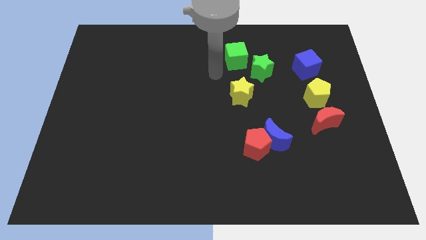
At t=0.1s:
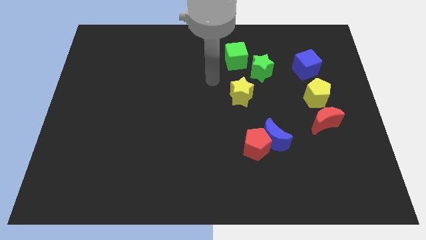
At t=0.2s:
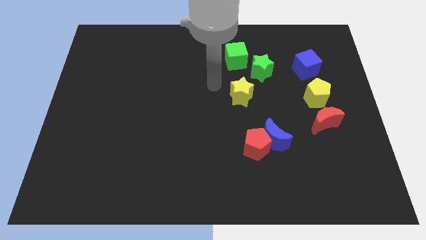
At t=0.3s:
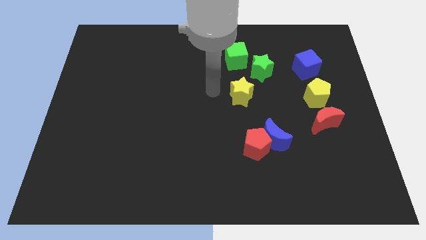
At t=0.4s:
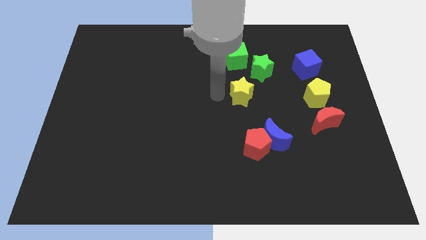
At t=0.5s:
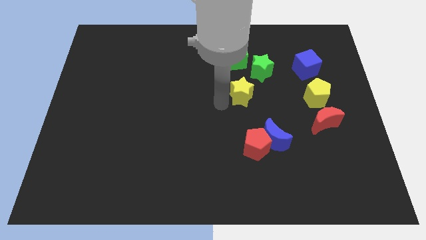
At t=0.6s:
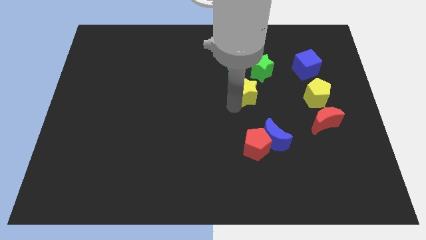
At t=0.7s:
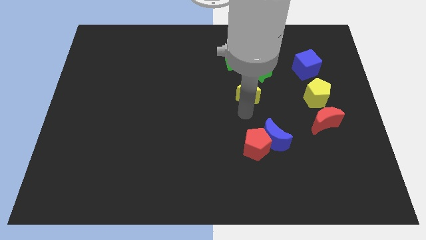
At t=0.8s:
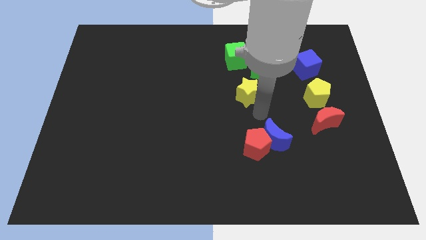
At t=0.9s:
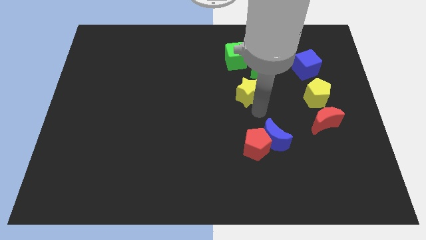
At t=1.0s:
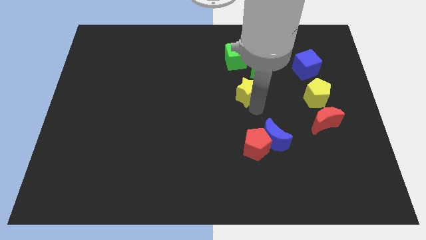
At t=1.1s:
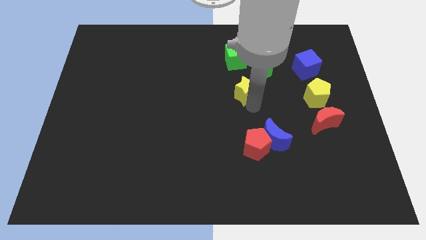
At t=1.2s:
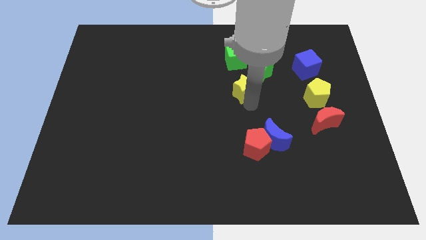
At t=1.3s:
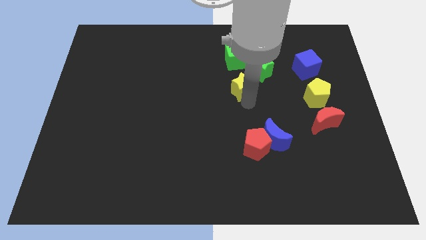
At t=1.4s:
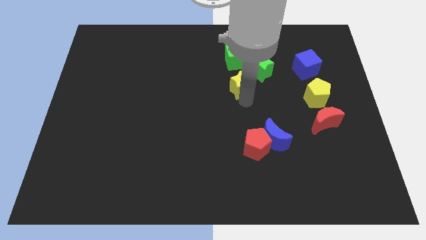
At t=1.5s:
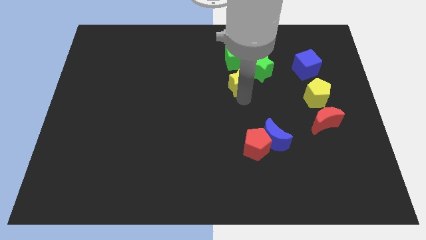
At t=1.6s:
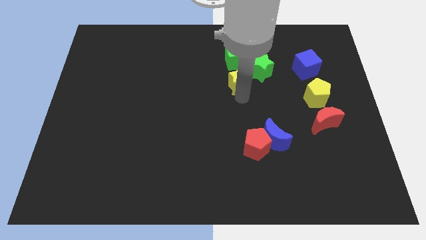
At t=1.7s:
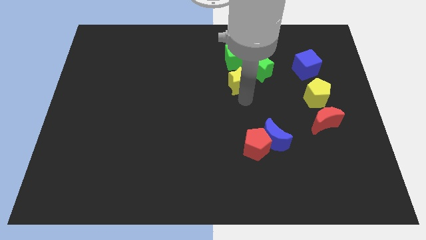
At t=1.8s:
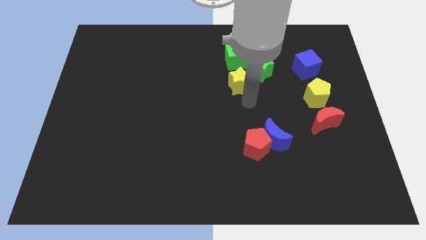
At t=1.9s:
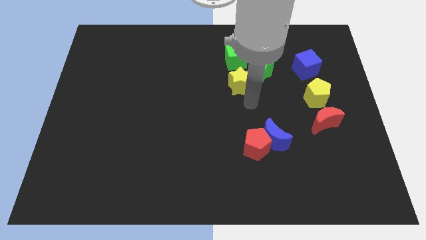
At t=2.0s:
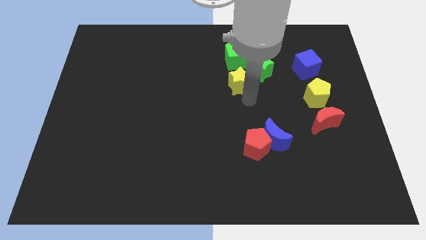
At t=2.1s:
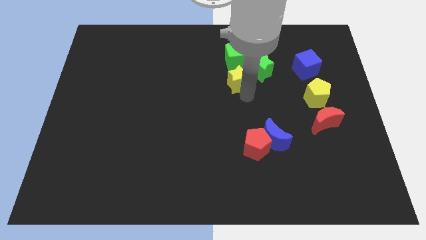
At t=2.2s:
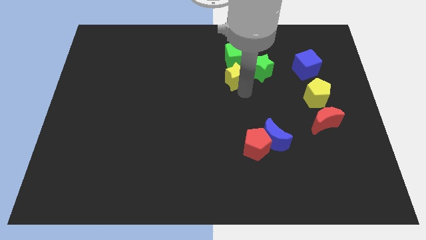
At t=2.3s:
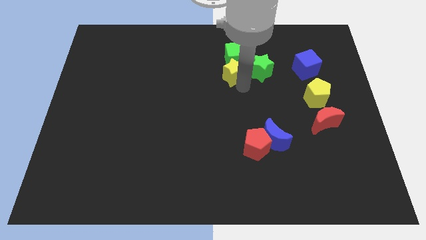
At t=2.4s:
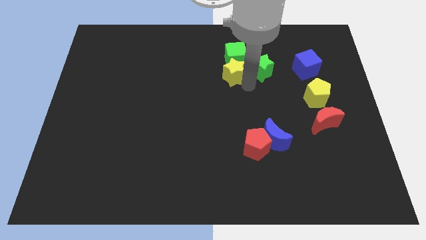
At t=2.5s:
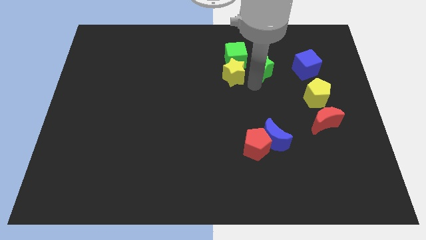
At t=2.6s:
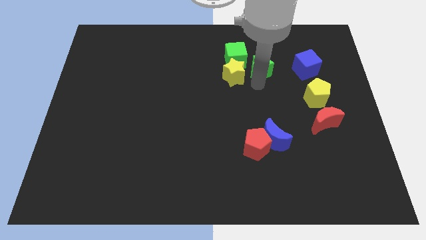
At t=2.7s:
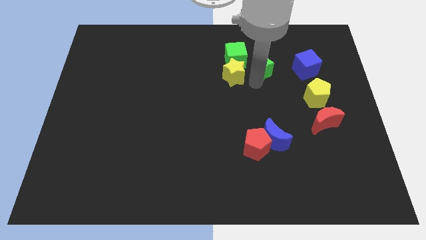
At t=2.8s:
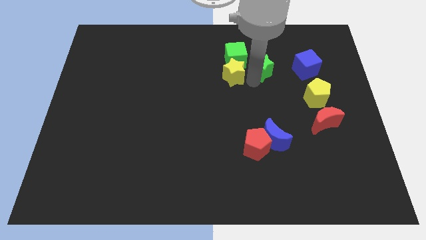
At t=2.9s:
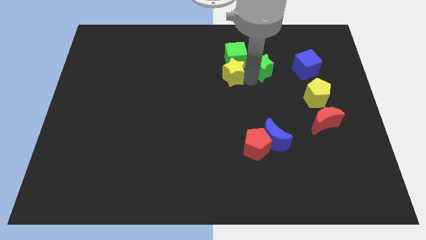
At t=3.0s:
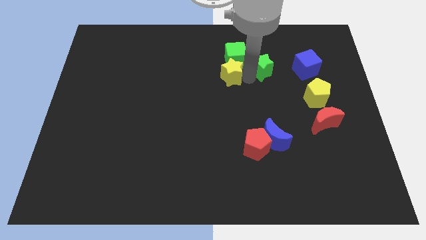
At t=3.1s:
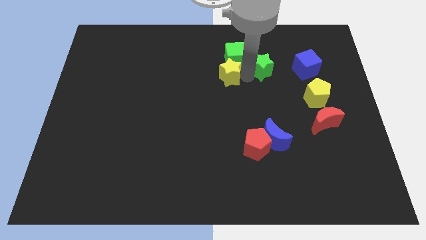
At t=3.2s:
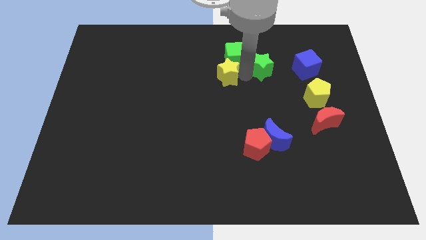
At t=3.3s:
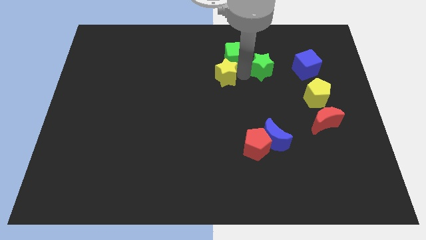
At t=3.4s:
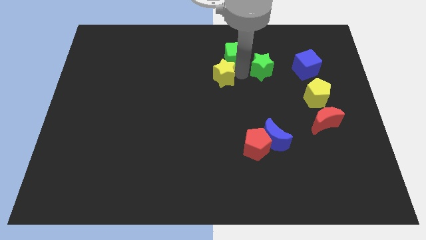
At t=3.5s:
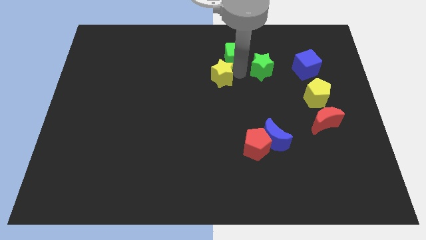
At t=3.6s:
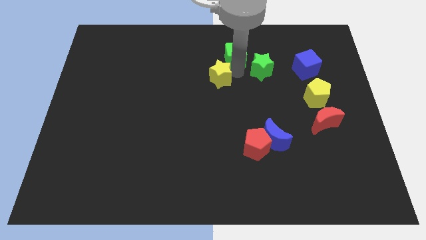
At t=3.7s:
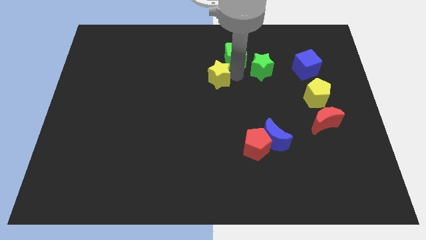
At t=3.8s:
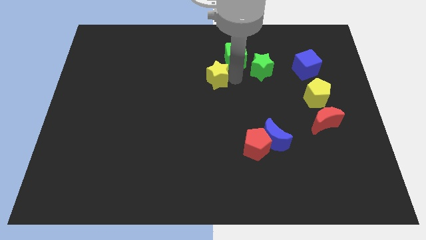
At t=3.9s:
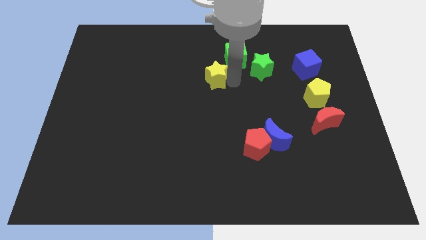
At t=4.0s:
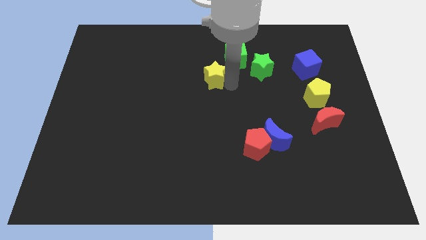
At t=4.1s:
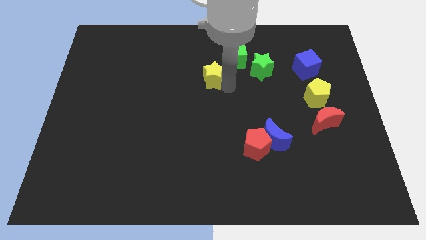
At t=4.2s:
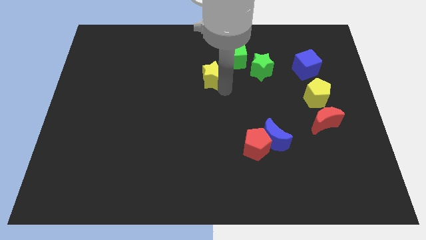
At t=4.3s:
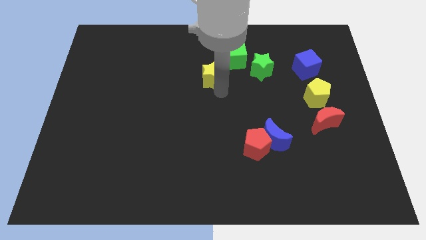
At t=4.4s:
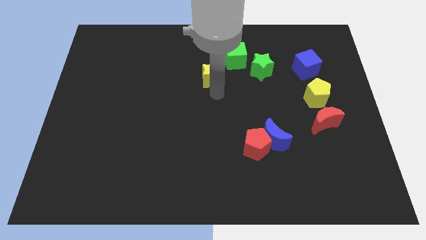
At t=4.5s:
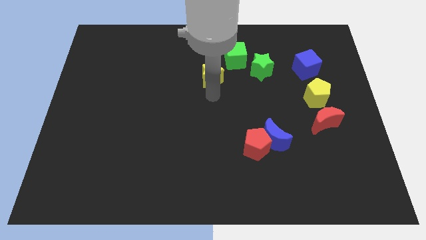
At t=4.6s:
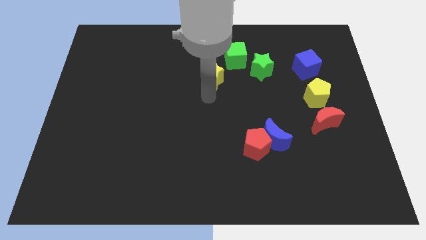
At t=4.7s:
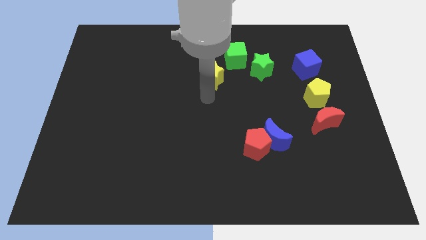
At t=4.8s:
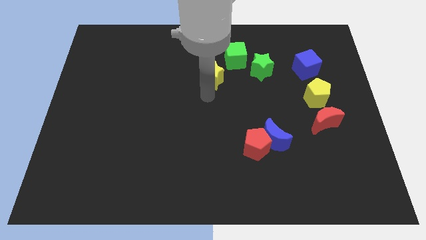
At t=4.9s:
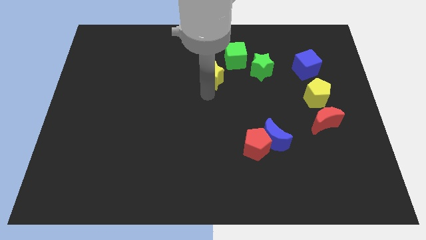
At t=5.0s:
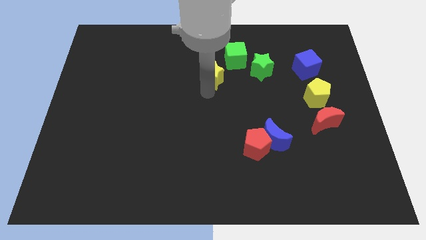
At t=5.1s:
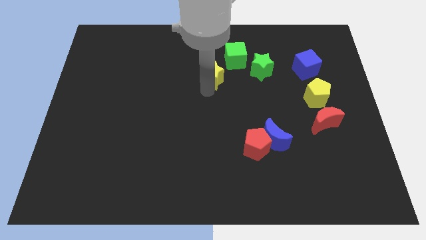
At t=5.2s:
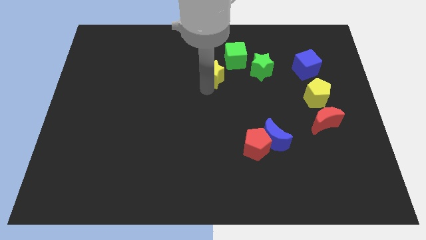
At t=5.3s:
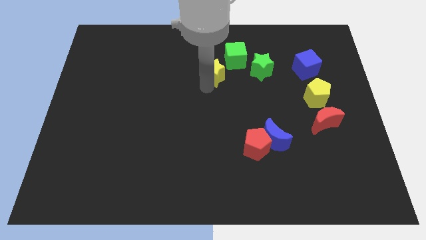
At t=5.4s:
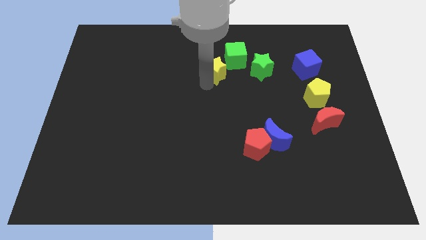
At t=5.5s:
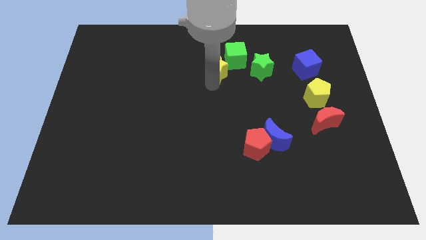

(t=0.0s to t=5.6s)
put the yellow star just left of the green cube

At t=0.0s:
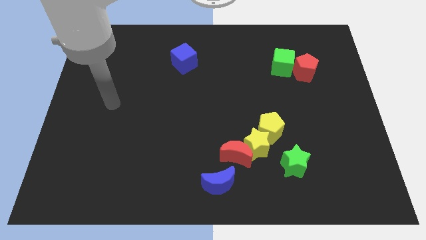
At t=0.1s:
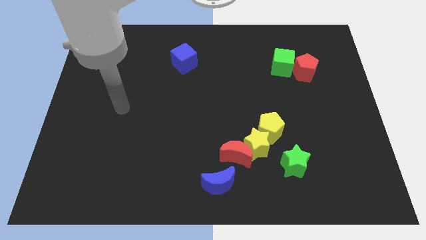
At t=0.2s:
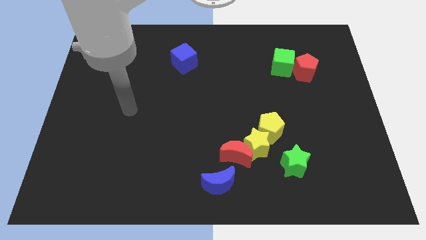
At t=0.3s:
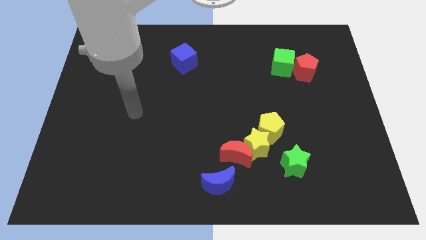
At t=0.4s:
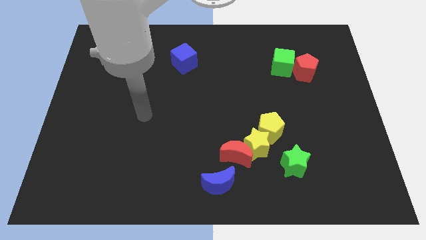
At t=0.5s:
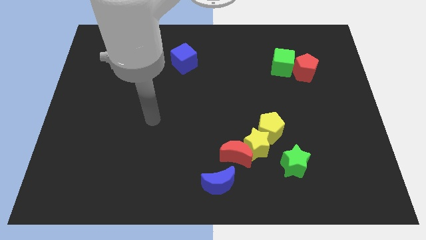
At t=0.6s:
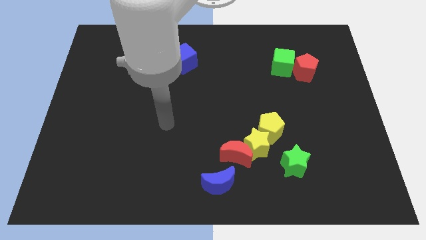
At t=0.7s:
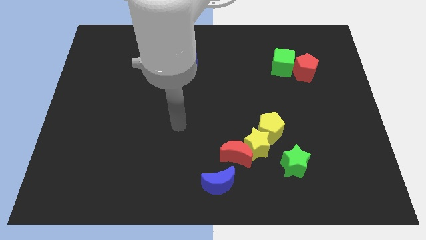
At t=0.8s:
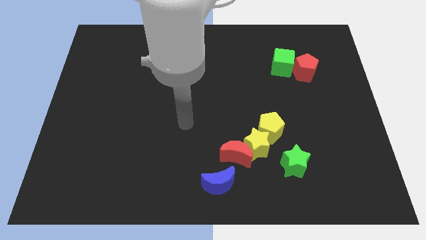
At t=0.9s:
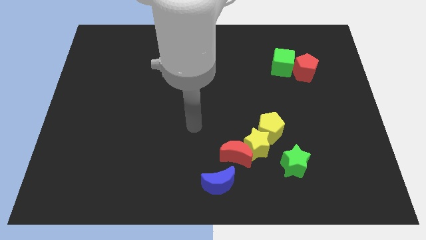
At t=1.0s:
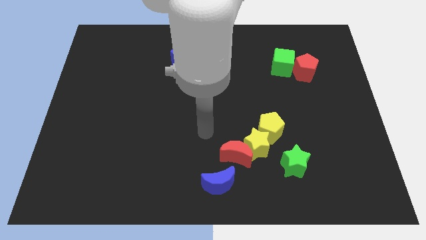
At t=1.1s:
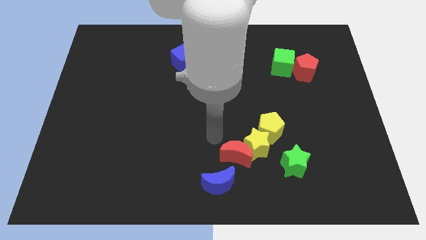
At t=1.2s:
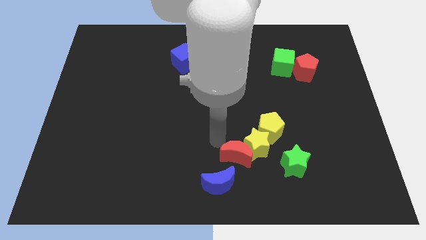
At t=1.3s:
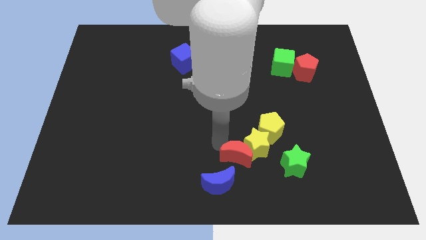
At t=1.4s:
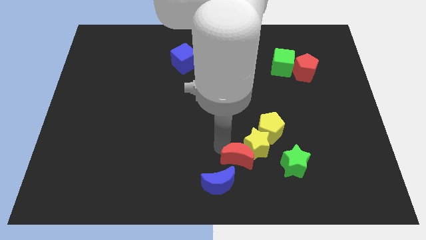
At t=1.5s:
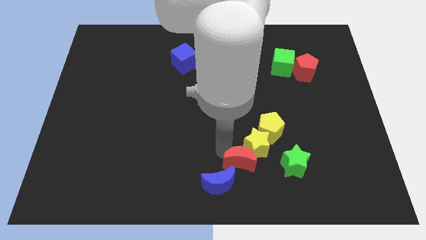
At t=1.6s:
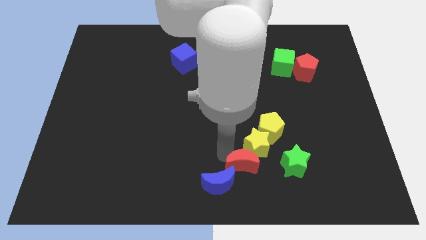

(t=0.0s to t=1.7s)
push the red moon just right of the blue moon

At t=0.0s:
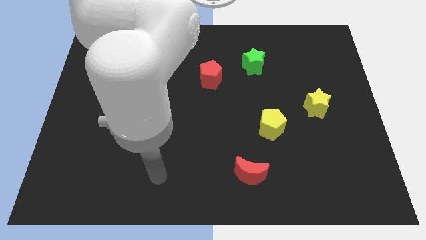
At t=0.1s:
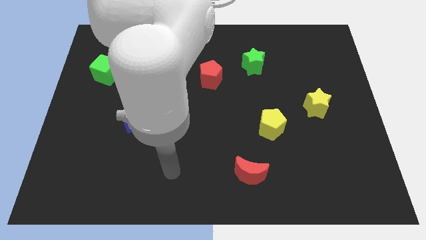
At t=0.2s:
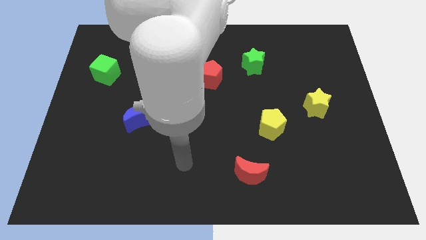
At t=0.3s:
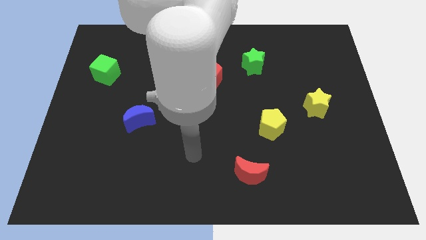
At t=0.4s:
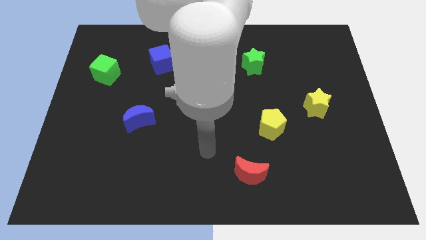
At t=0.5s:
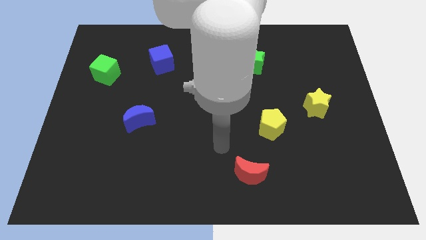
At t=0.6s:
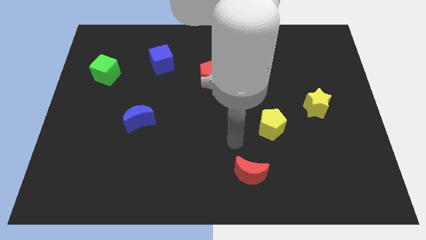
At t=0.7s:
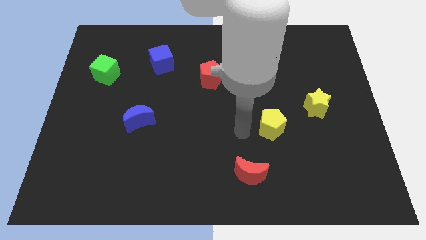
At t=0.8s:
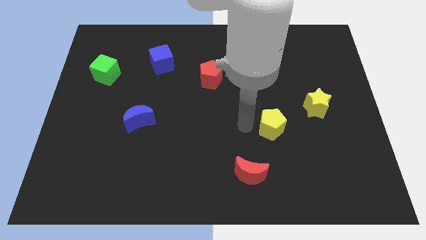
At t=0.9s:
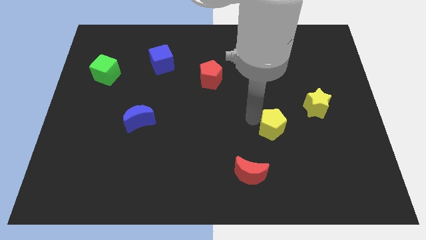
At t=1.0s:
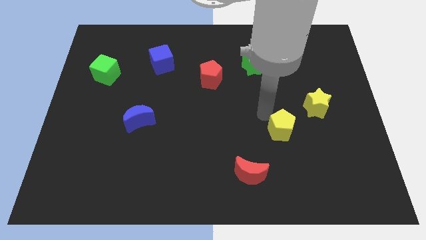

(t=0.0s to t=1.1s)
push the yellow star to the top right side of the yellow pentagon
